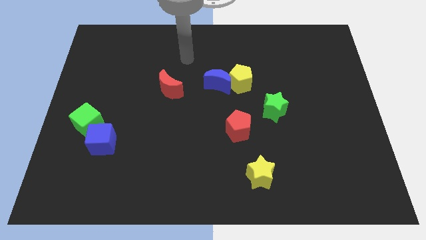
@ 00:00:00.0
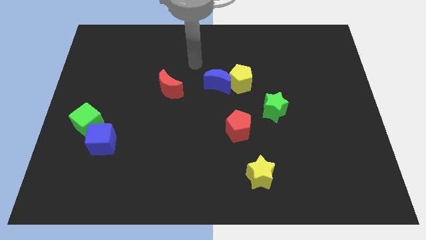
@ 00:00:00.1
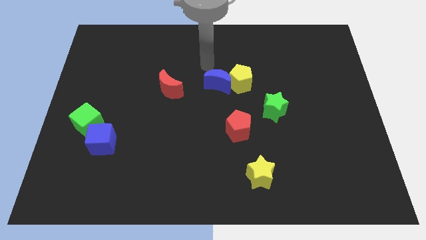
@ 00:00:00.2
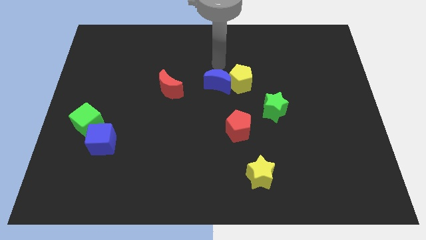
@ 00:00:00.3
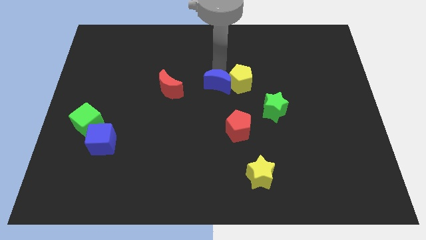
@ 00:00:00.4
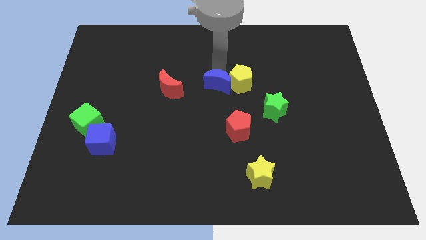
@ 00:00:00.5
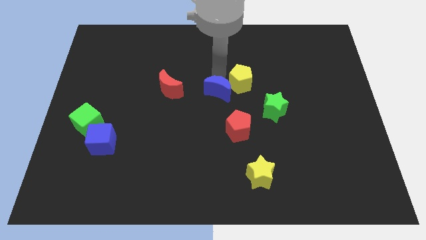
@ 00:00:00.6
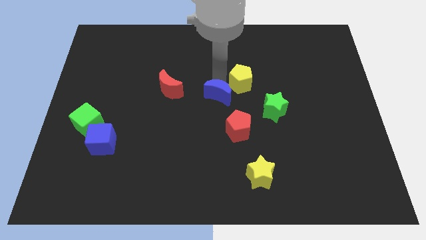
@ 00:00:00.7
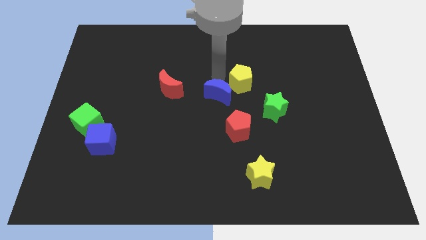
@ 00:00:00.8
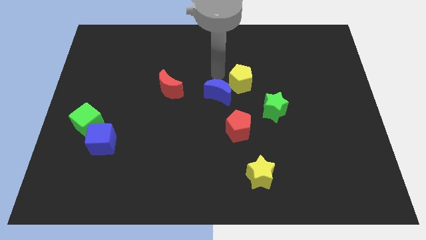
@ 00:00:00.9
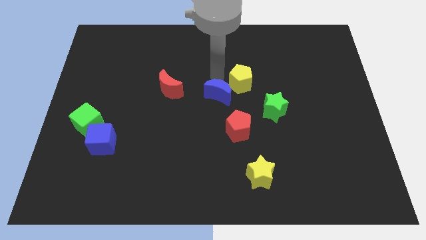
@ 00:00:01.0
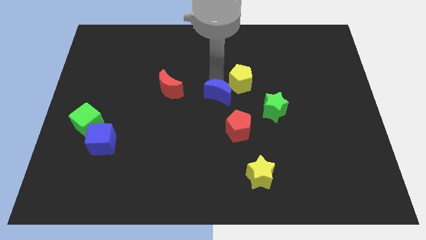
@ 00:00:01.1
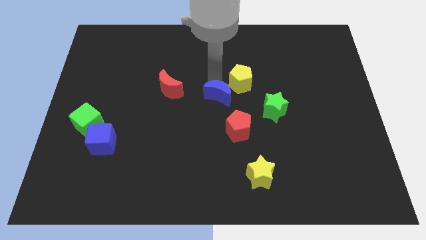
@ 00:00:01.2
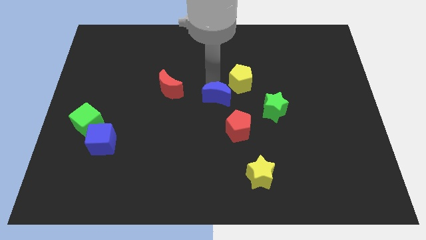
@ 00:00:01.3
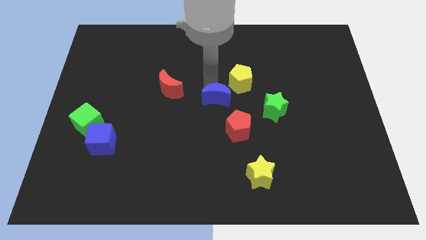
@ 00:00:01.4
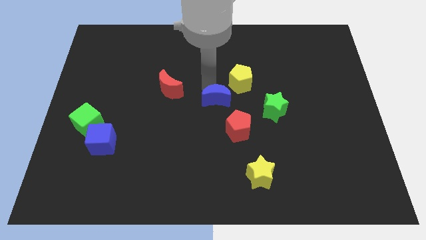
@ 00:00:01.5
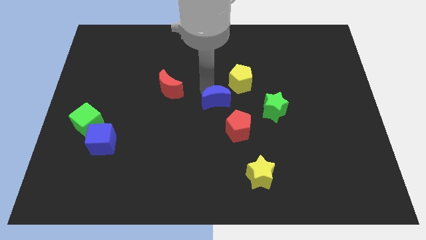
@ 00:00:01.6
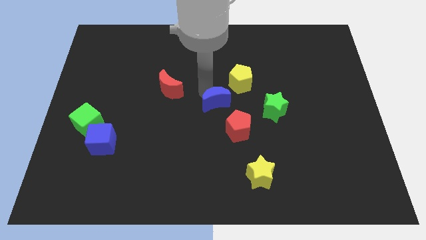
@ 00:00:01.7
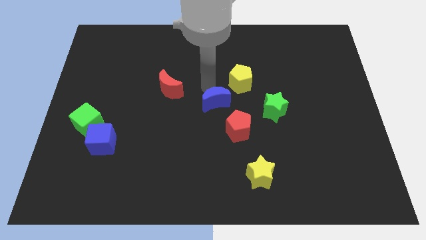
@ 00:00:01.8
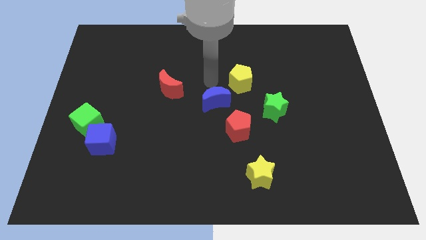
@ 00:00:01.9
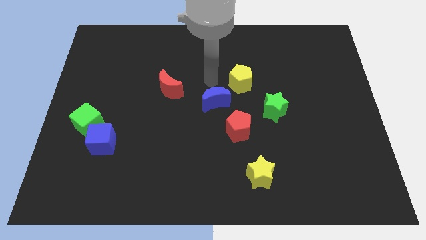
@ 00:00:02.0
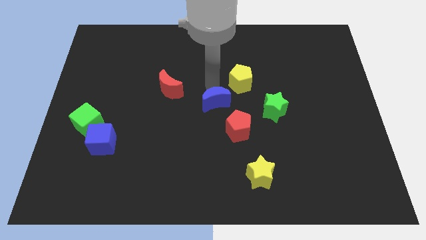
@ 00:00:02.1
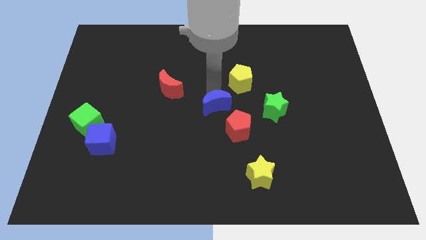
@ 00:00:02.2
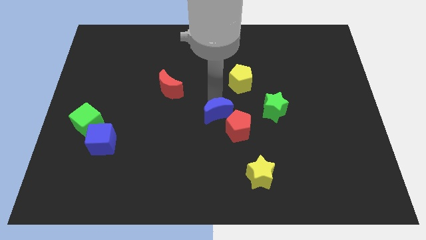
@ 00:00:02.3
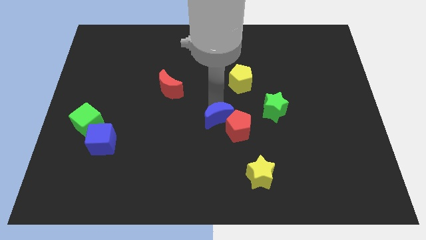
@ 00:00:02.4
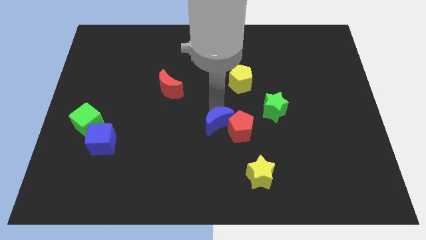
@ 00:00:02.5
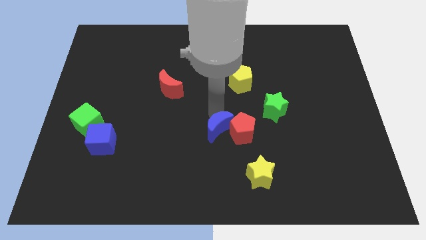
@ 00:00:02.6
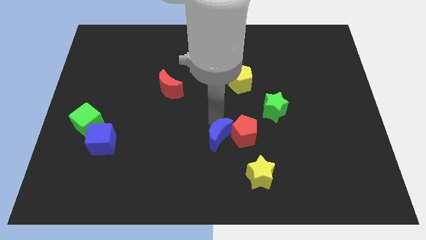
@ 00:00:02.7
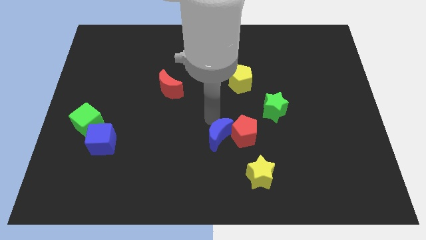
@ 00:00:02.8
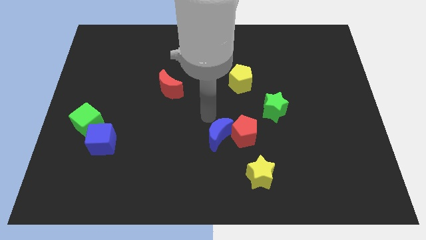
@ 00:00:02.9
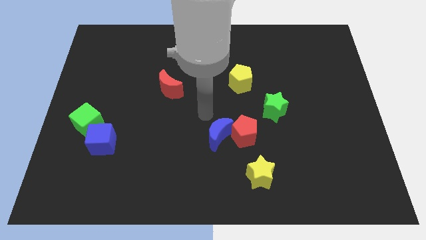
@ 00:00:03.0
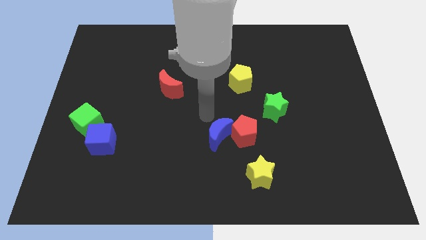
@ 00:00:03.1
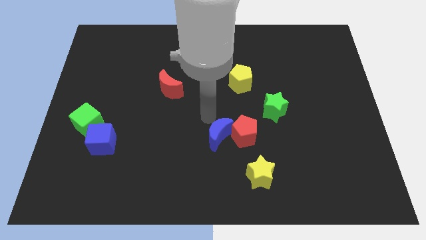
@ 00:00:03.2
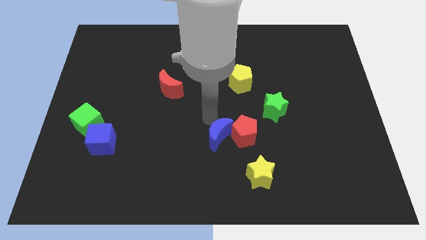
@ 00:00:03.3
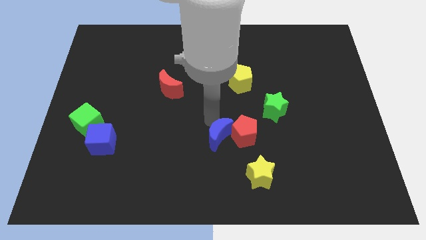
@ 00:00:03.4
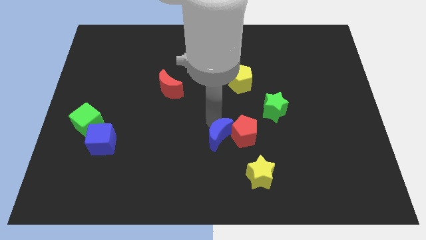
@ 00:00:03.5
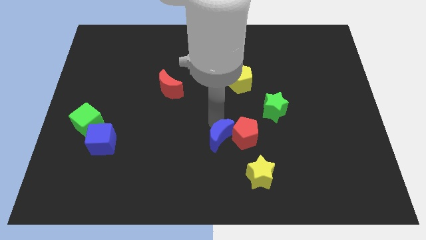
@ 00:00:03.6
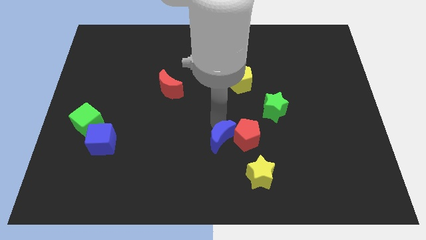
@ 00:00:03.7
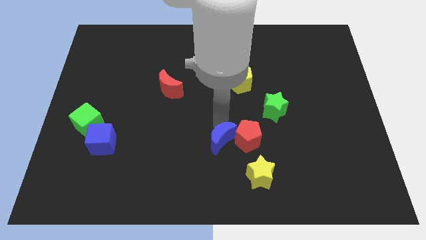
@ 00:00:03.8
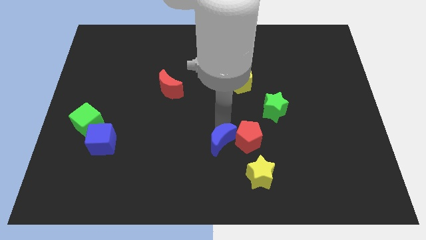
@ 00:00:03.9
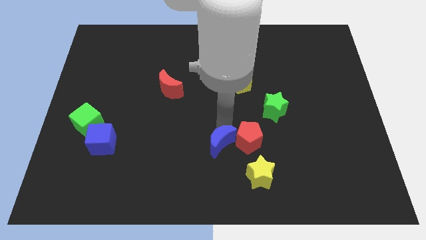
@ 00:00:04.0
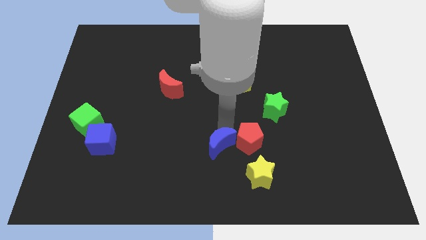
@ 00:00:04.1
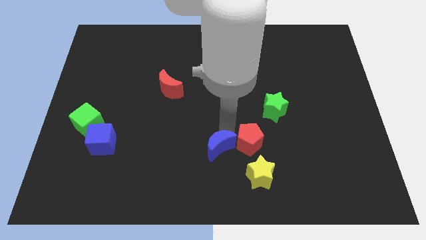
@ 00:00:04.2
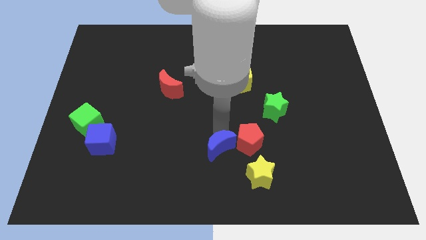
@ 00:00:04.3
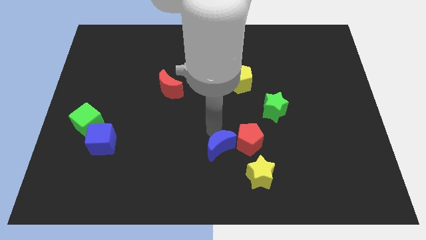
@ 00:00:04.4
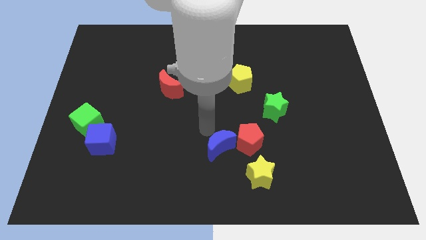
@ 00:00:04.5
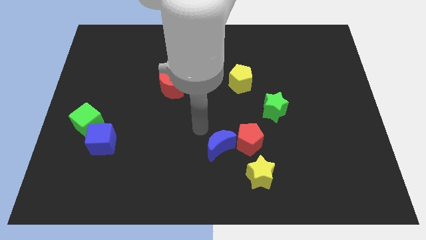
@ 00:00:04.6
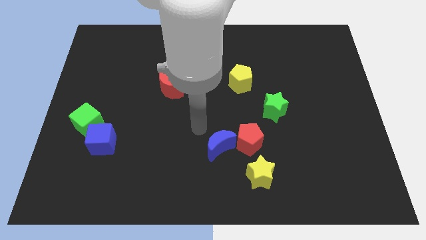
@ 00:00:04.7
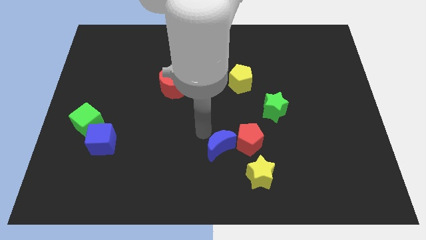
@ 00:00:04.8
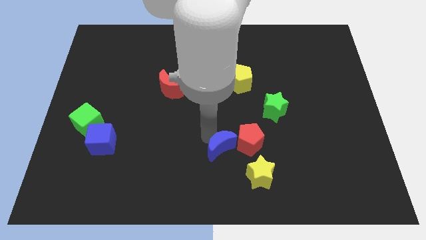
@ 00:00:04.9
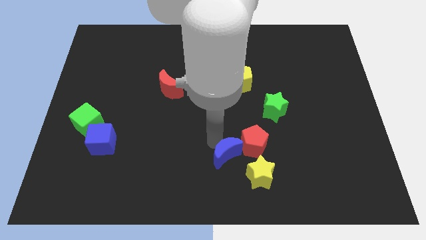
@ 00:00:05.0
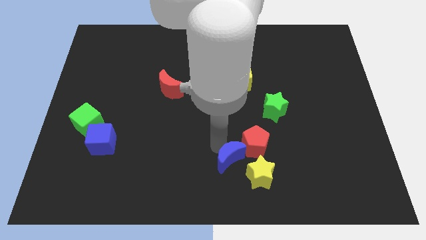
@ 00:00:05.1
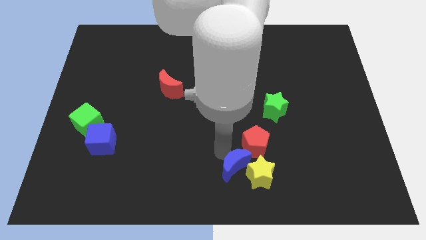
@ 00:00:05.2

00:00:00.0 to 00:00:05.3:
put the blue moon to the yellow star

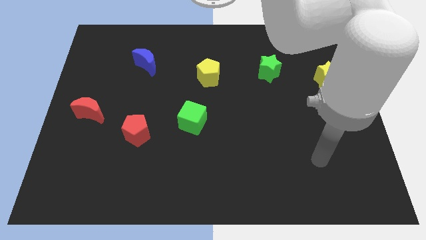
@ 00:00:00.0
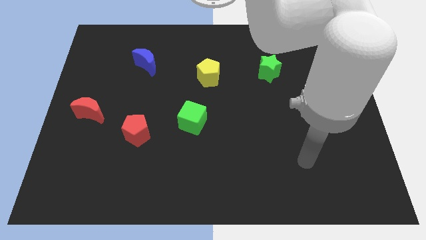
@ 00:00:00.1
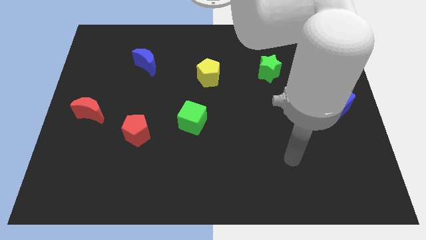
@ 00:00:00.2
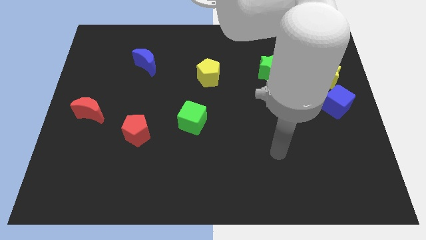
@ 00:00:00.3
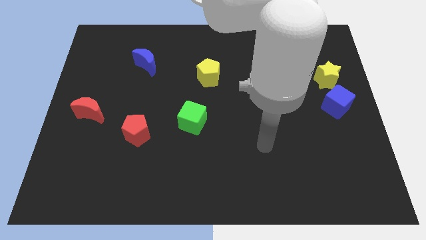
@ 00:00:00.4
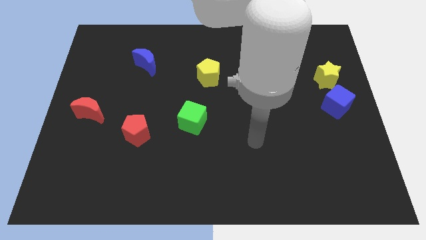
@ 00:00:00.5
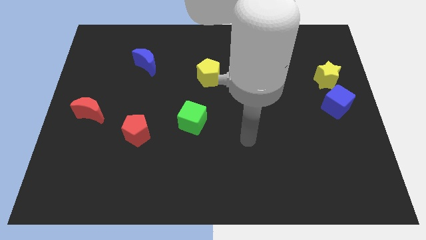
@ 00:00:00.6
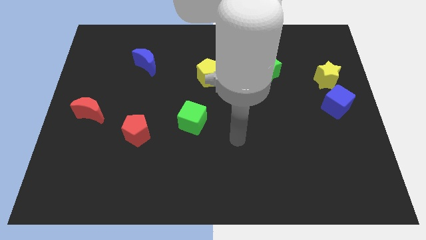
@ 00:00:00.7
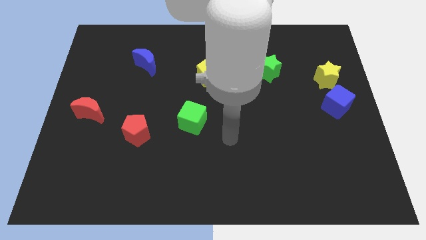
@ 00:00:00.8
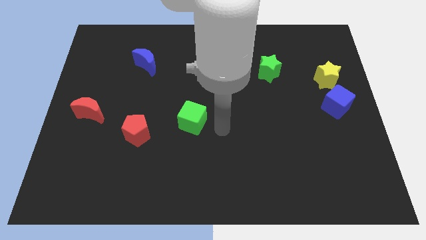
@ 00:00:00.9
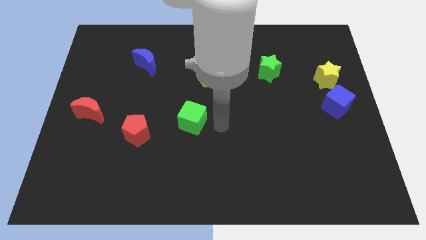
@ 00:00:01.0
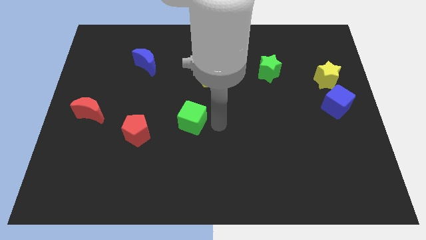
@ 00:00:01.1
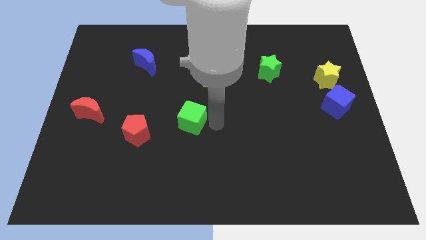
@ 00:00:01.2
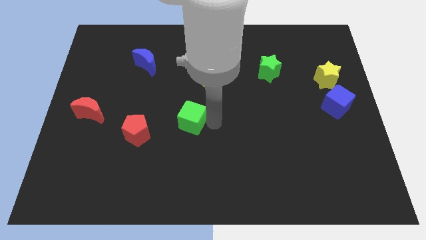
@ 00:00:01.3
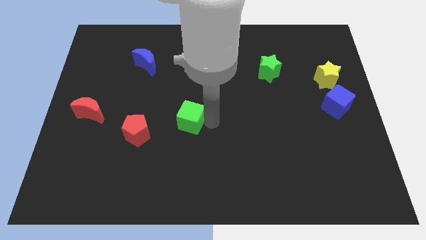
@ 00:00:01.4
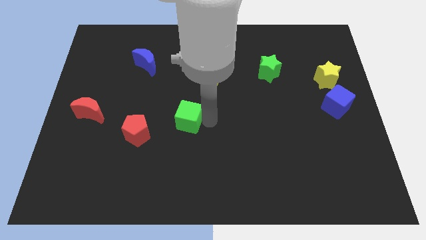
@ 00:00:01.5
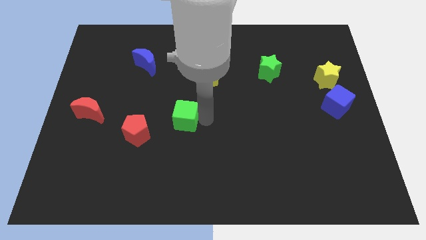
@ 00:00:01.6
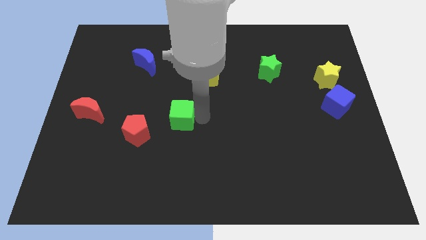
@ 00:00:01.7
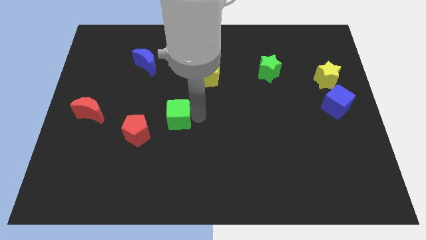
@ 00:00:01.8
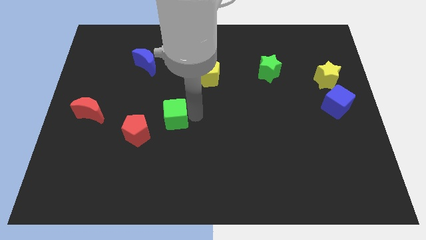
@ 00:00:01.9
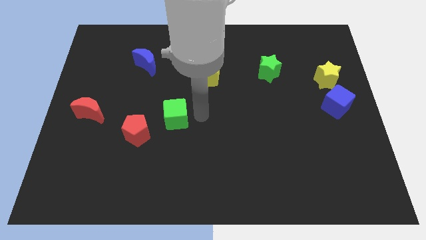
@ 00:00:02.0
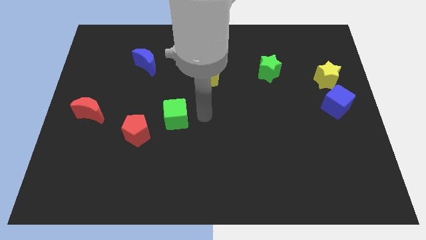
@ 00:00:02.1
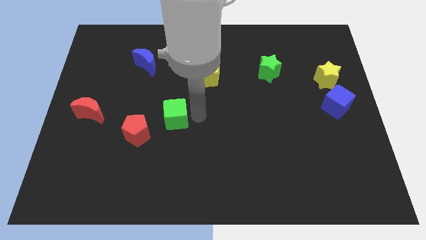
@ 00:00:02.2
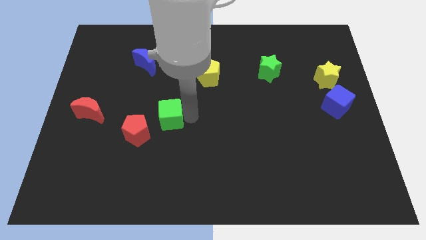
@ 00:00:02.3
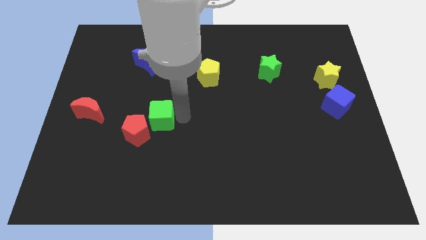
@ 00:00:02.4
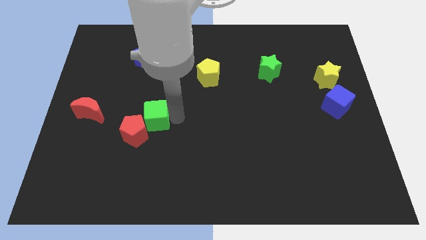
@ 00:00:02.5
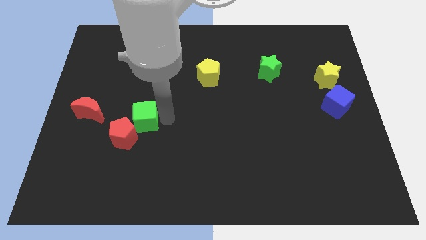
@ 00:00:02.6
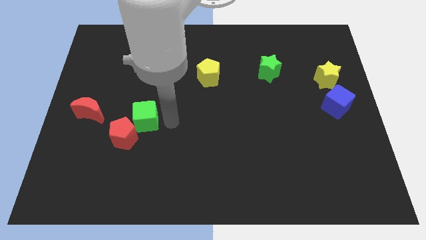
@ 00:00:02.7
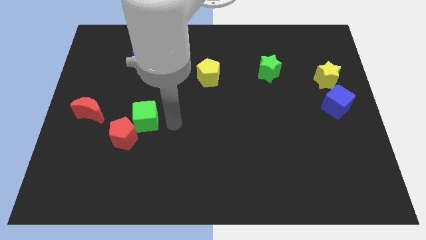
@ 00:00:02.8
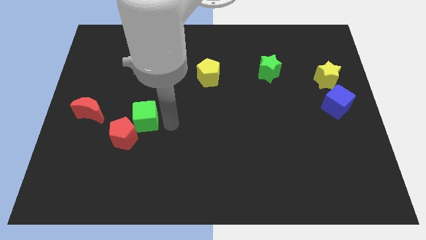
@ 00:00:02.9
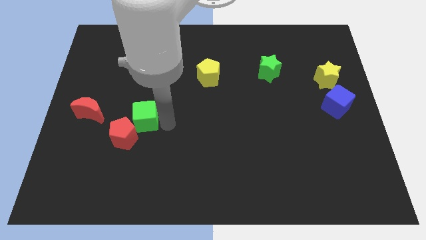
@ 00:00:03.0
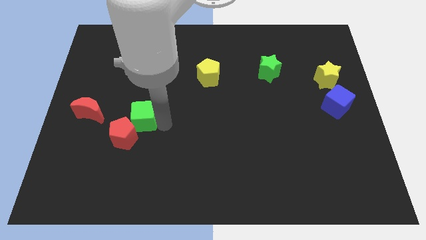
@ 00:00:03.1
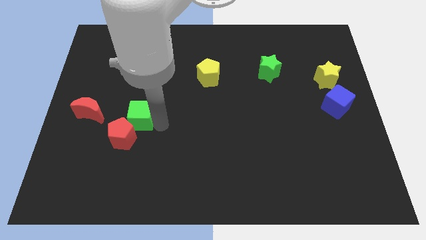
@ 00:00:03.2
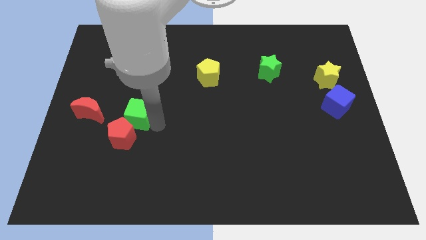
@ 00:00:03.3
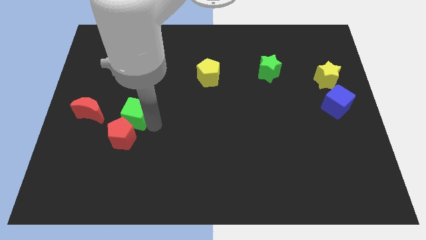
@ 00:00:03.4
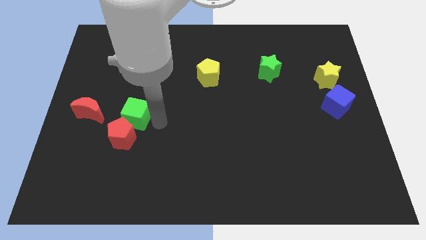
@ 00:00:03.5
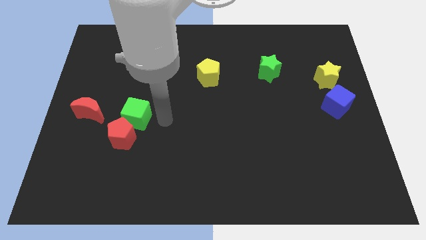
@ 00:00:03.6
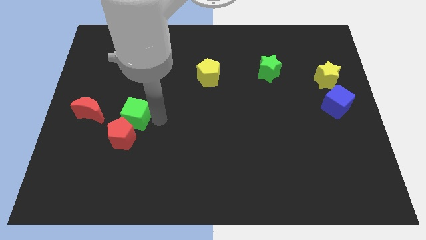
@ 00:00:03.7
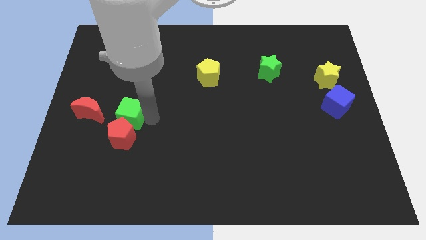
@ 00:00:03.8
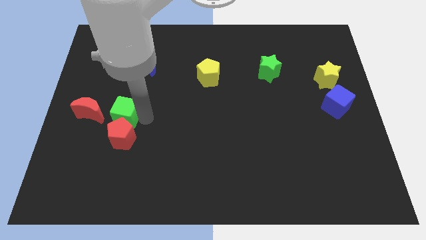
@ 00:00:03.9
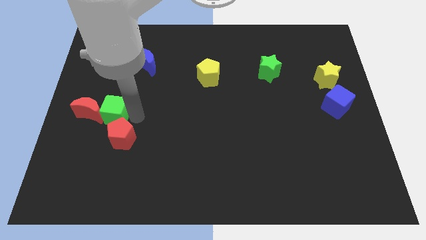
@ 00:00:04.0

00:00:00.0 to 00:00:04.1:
push the green cube to the red moon
